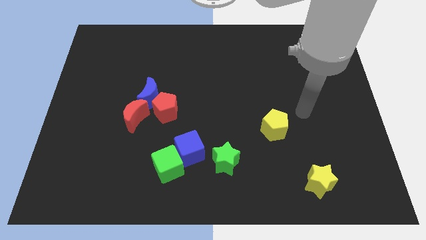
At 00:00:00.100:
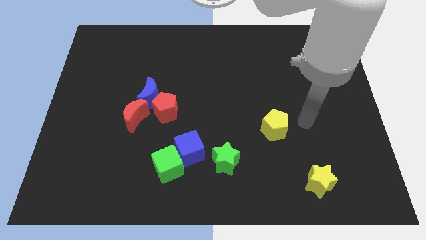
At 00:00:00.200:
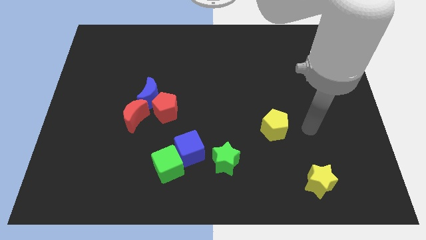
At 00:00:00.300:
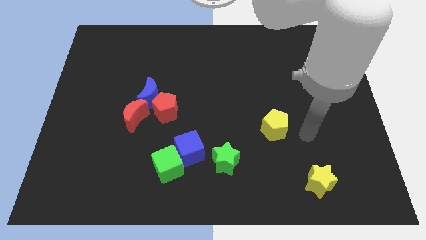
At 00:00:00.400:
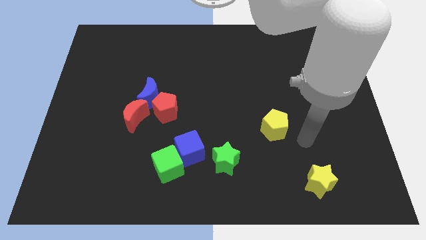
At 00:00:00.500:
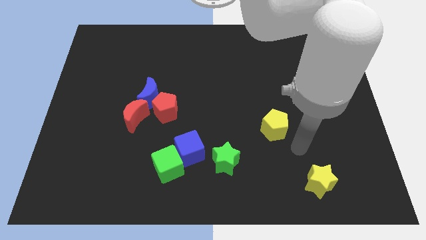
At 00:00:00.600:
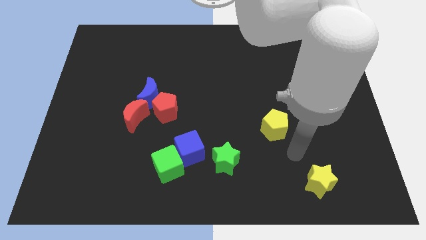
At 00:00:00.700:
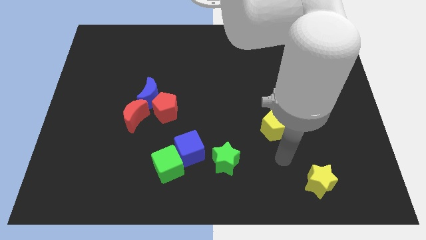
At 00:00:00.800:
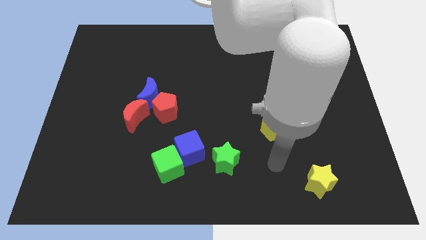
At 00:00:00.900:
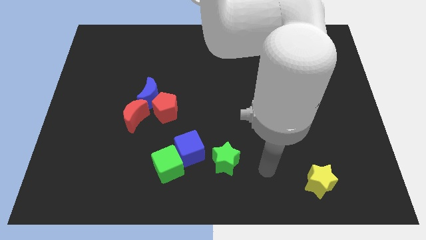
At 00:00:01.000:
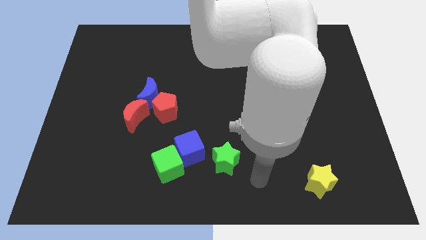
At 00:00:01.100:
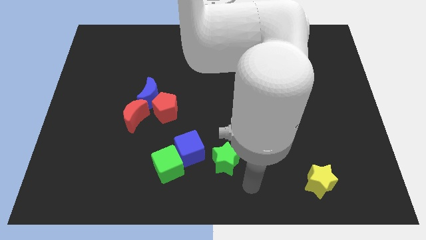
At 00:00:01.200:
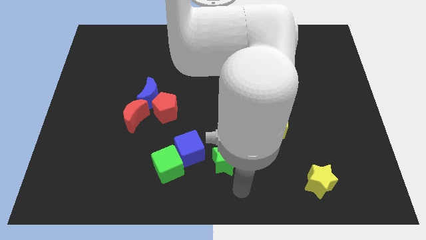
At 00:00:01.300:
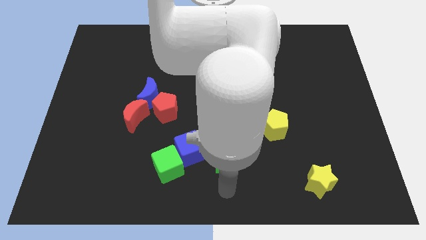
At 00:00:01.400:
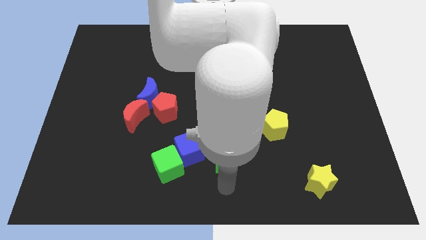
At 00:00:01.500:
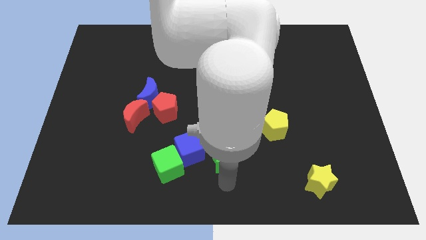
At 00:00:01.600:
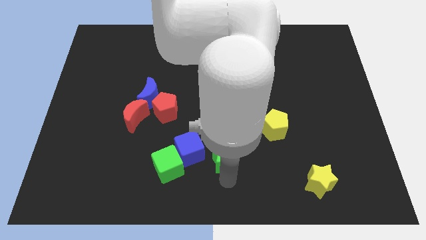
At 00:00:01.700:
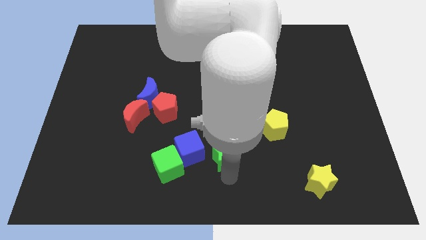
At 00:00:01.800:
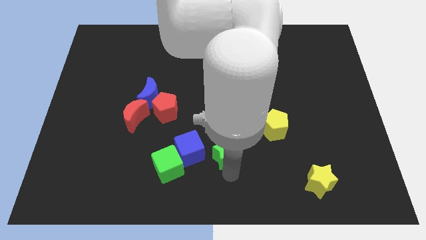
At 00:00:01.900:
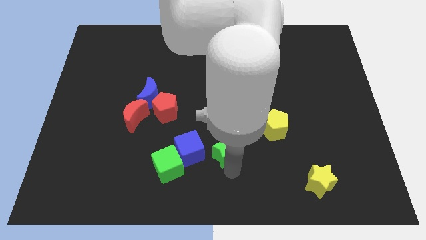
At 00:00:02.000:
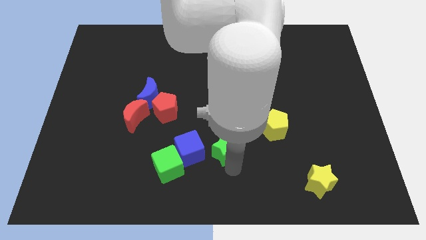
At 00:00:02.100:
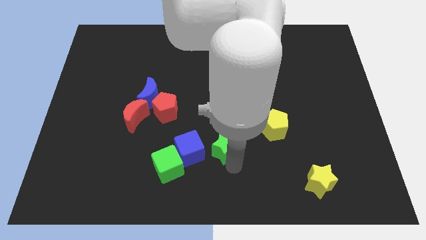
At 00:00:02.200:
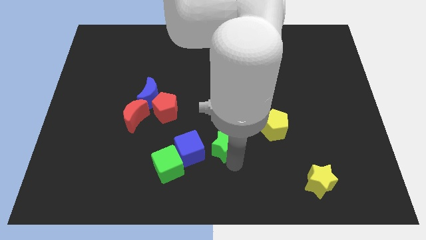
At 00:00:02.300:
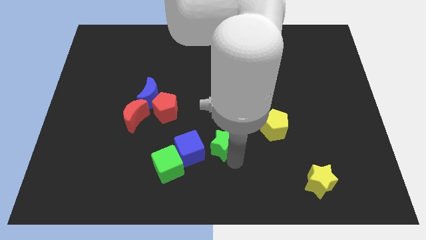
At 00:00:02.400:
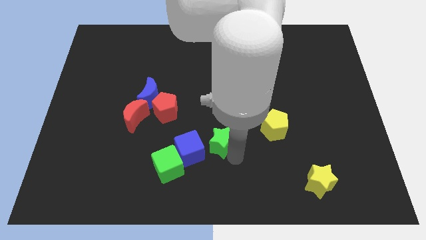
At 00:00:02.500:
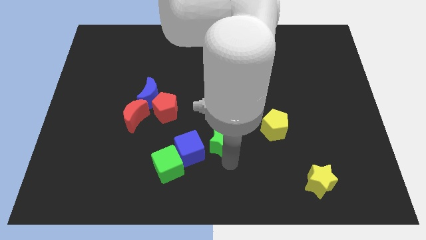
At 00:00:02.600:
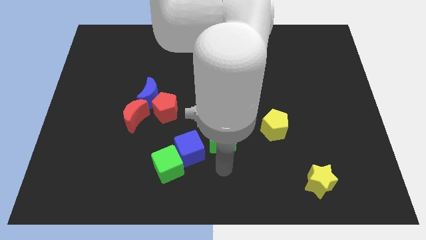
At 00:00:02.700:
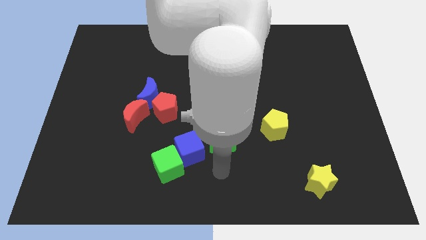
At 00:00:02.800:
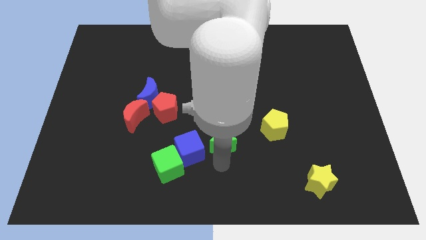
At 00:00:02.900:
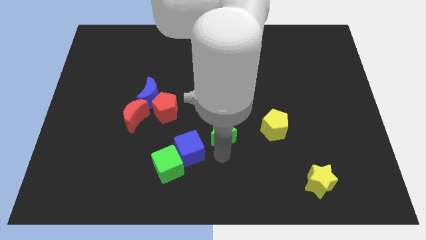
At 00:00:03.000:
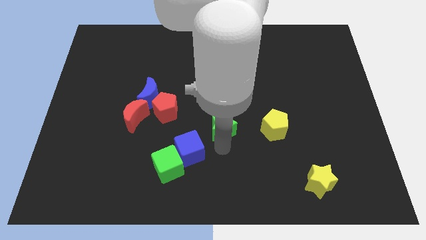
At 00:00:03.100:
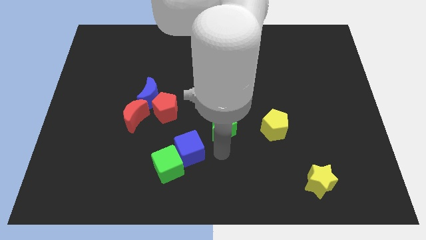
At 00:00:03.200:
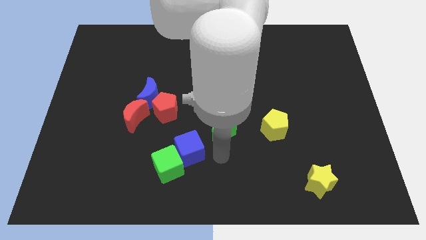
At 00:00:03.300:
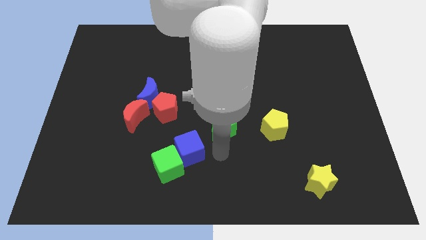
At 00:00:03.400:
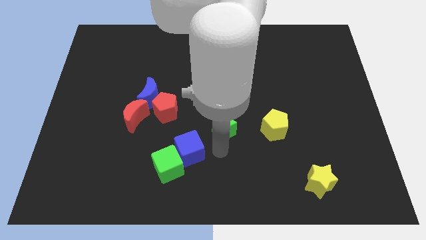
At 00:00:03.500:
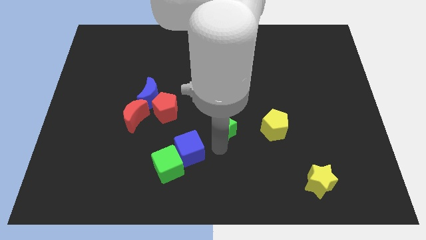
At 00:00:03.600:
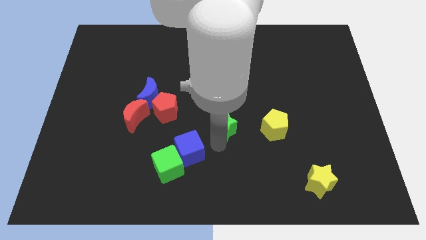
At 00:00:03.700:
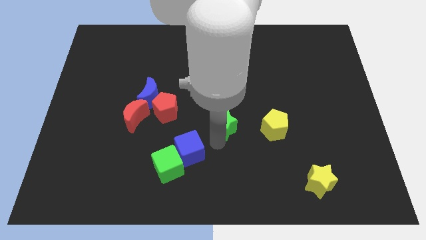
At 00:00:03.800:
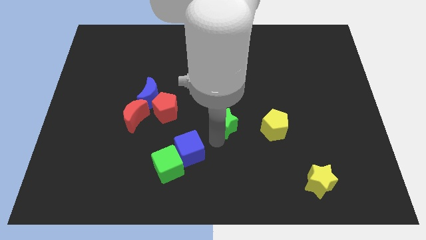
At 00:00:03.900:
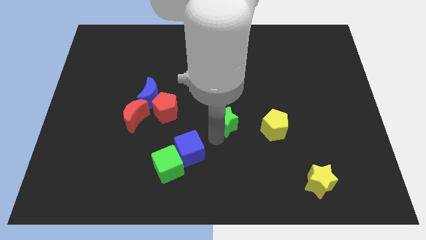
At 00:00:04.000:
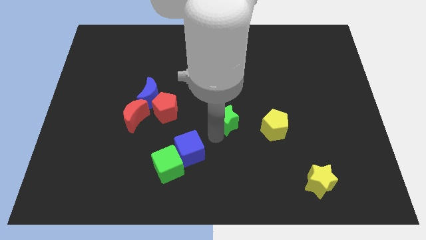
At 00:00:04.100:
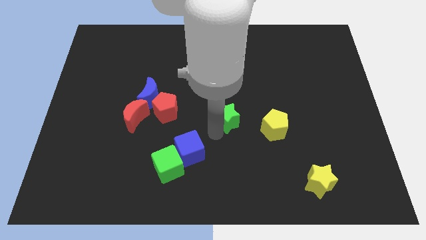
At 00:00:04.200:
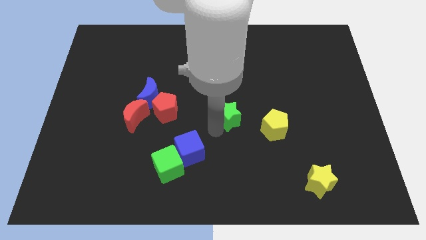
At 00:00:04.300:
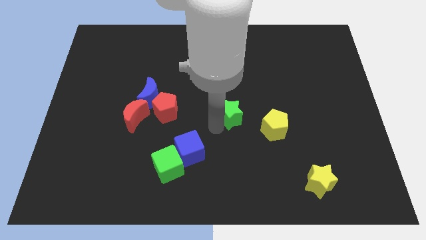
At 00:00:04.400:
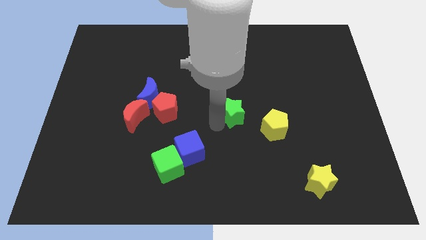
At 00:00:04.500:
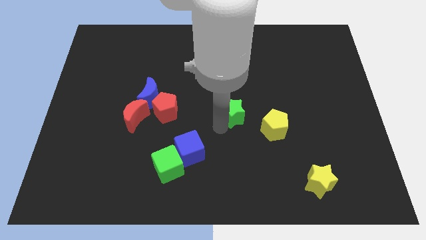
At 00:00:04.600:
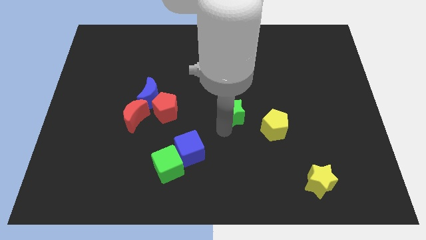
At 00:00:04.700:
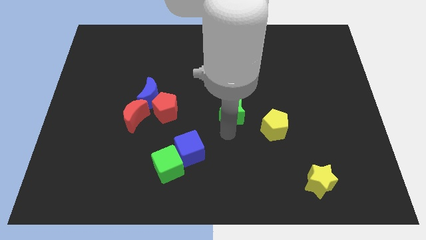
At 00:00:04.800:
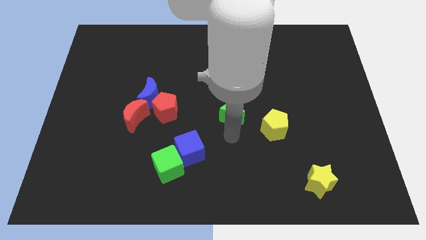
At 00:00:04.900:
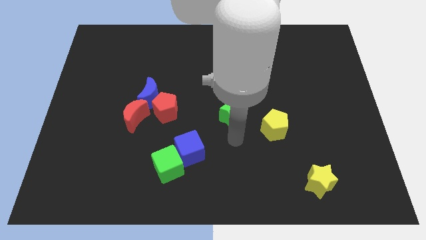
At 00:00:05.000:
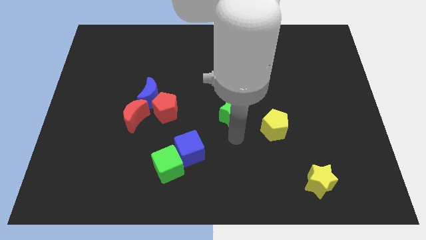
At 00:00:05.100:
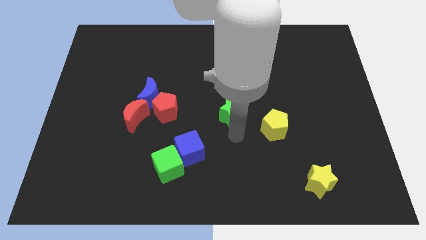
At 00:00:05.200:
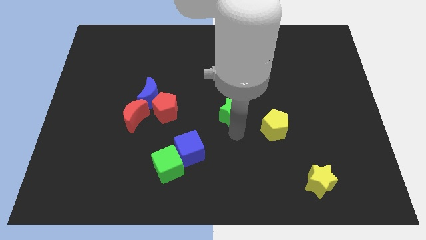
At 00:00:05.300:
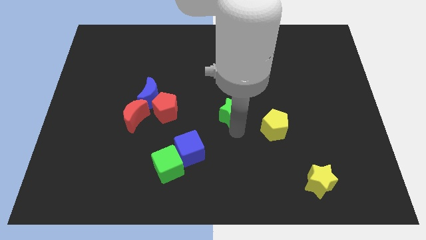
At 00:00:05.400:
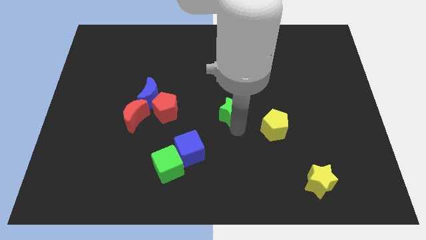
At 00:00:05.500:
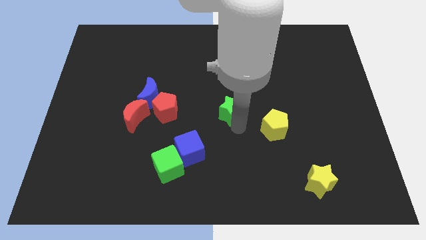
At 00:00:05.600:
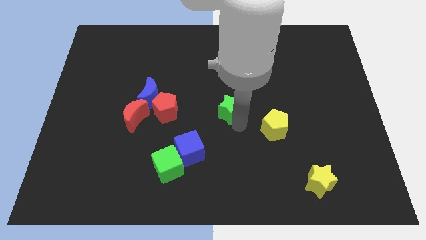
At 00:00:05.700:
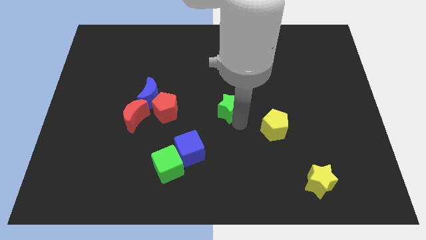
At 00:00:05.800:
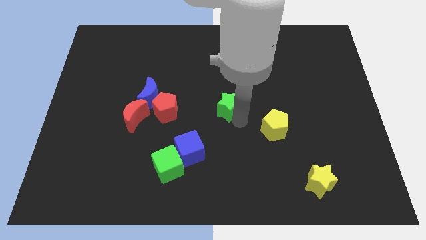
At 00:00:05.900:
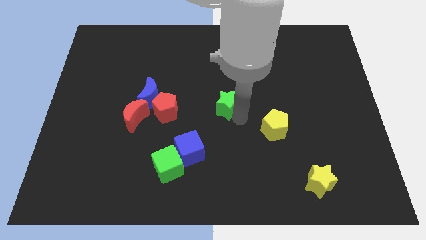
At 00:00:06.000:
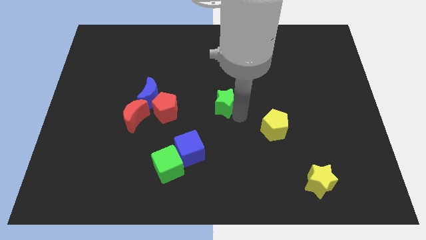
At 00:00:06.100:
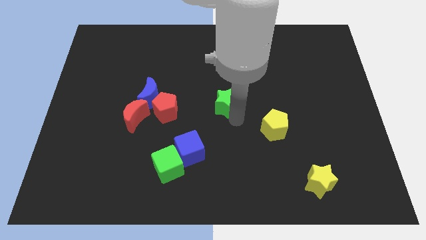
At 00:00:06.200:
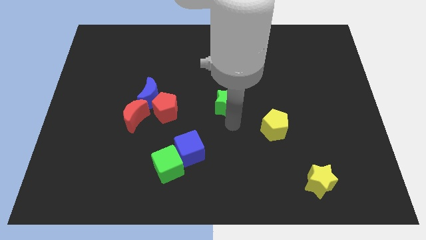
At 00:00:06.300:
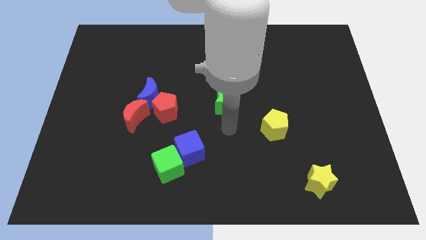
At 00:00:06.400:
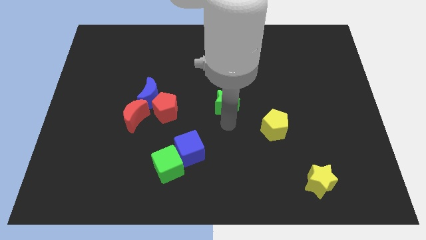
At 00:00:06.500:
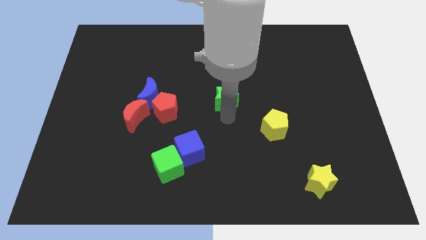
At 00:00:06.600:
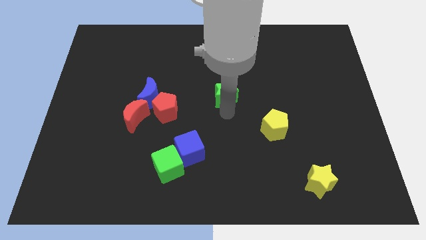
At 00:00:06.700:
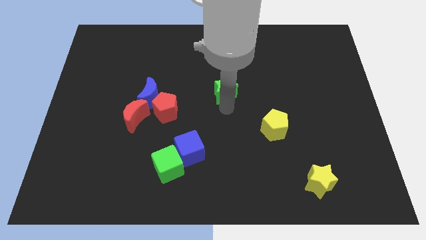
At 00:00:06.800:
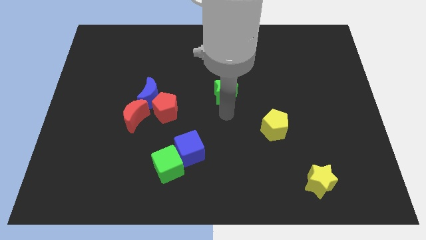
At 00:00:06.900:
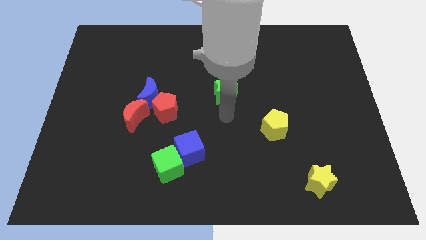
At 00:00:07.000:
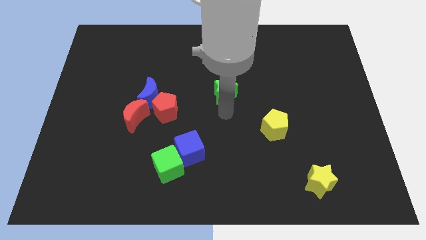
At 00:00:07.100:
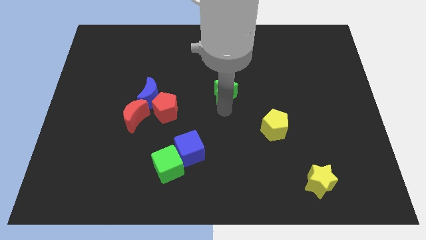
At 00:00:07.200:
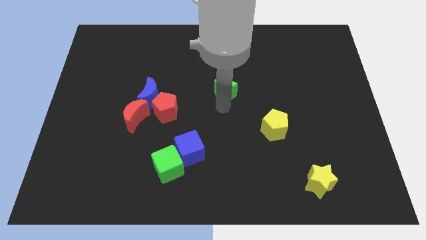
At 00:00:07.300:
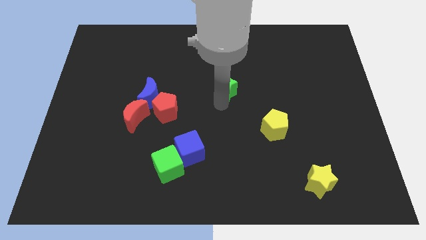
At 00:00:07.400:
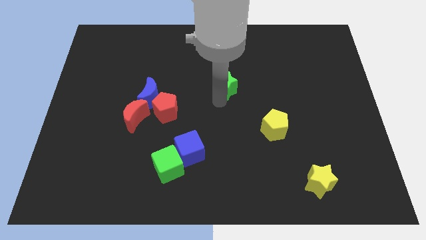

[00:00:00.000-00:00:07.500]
move the green star up

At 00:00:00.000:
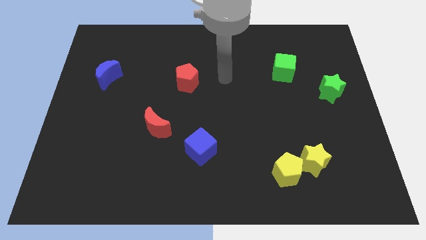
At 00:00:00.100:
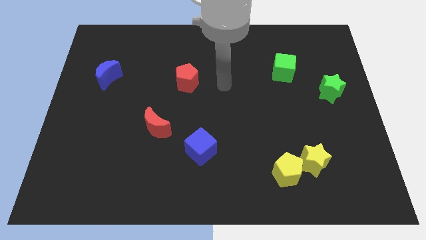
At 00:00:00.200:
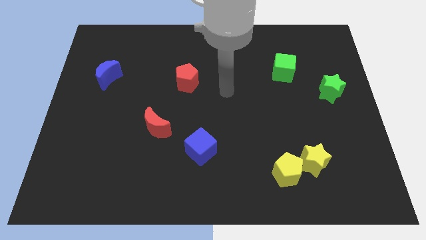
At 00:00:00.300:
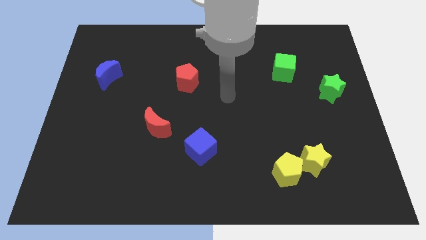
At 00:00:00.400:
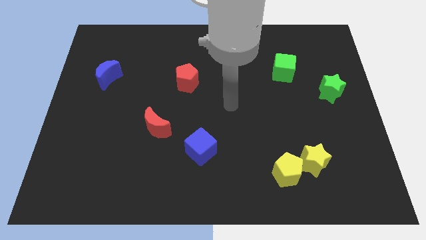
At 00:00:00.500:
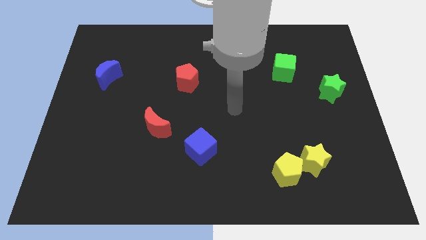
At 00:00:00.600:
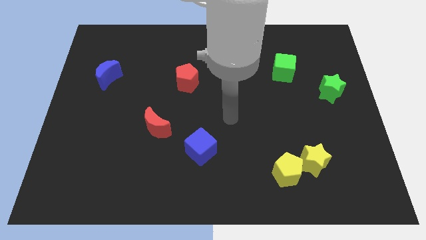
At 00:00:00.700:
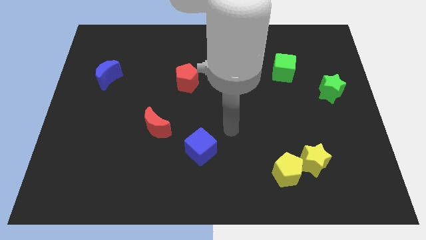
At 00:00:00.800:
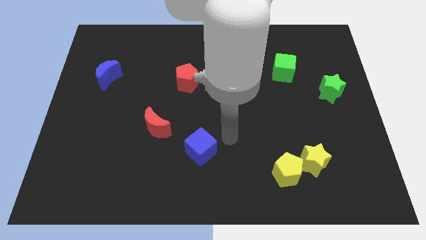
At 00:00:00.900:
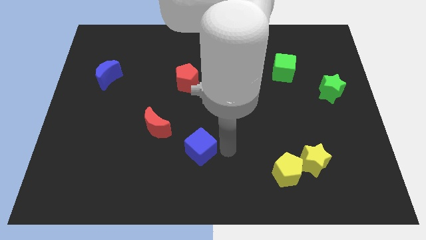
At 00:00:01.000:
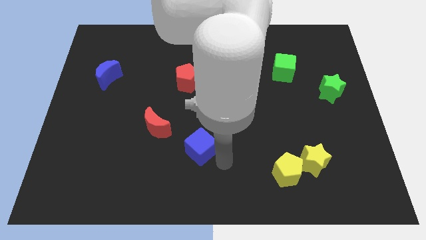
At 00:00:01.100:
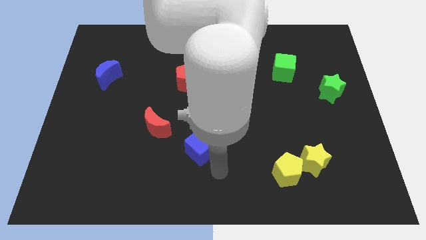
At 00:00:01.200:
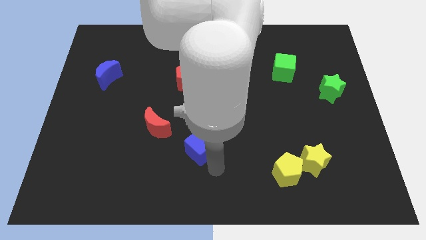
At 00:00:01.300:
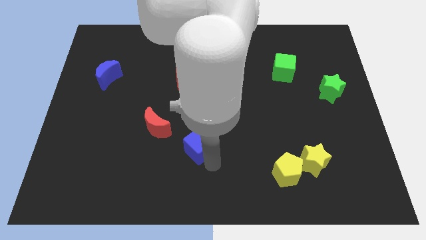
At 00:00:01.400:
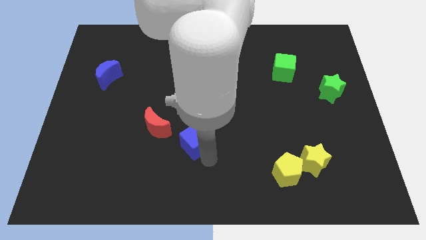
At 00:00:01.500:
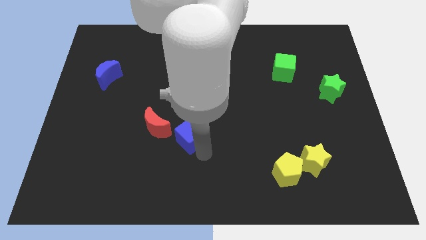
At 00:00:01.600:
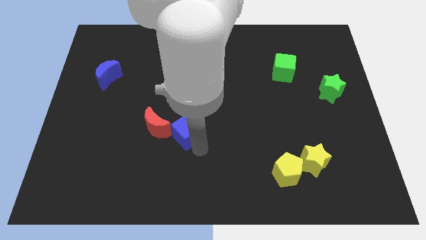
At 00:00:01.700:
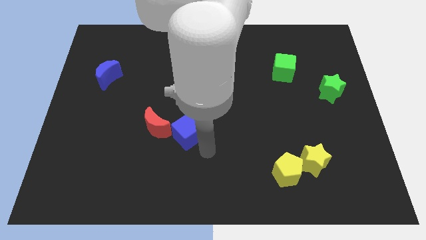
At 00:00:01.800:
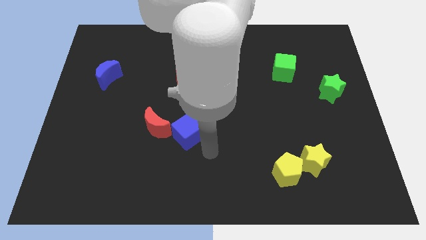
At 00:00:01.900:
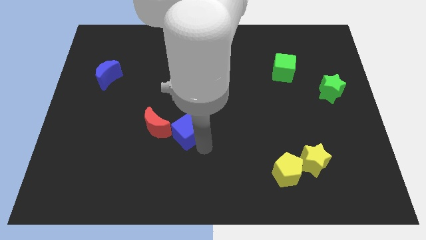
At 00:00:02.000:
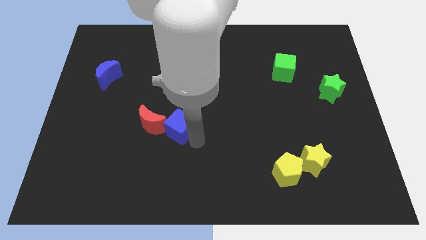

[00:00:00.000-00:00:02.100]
move the blue cube upwards and to the left diagonally a little
